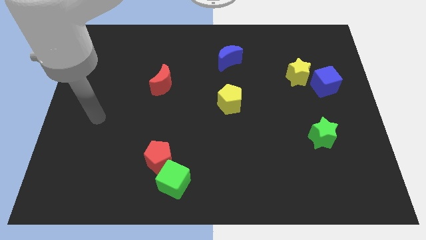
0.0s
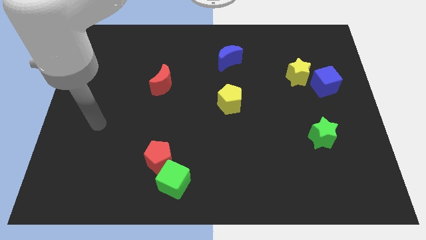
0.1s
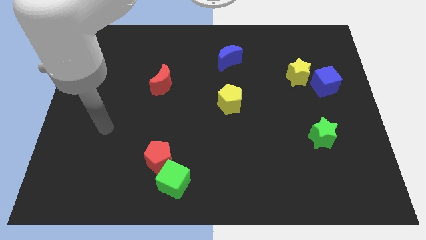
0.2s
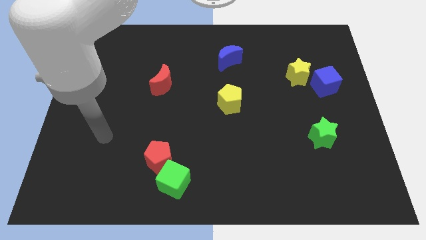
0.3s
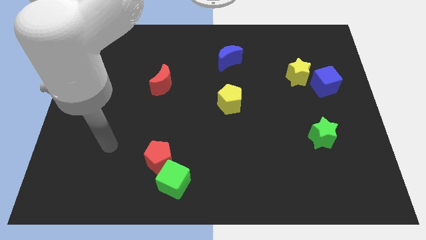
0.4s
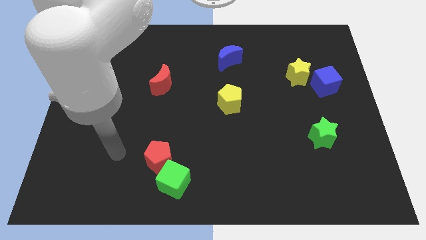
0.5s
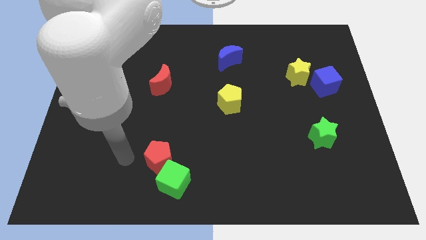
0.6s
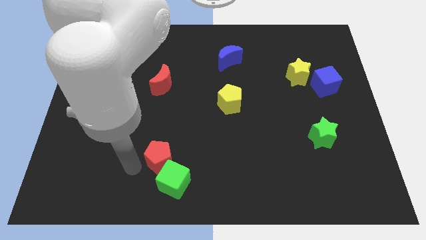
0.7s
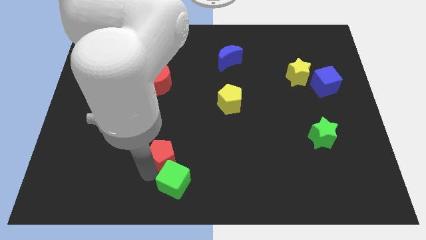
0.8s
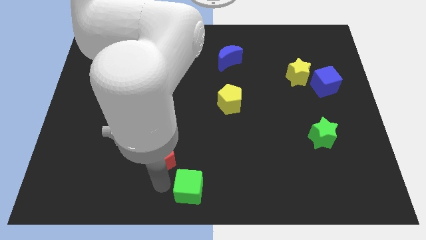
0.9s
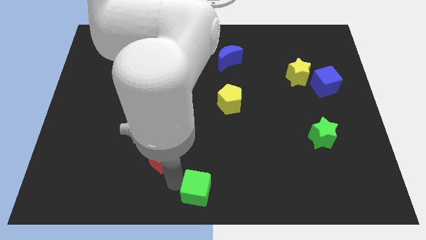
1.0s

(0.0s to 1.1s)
move the red pentagon away from the green cube

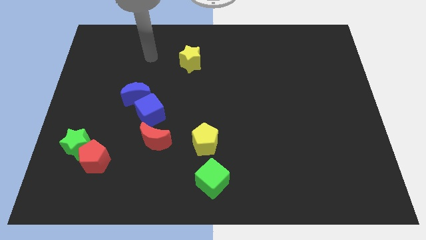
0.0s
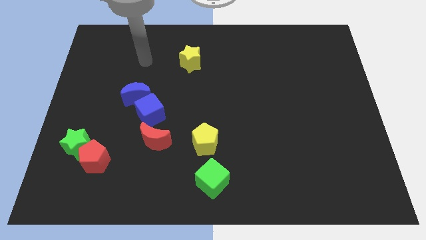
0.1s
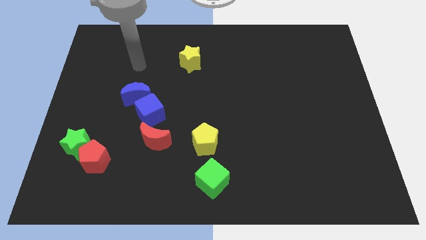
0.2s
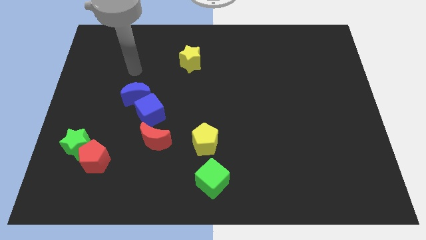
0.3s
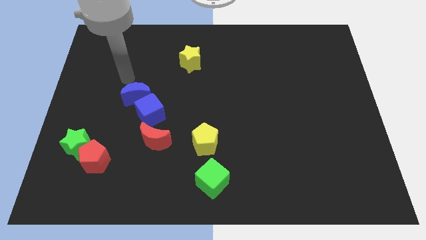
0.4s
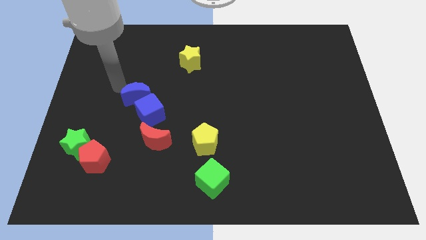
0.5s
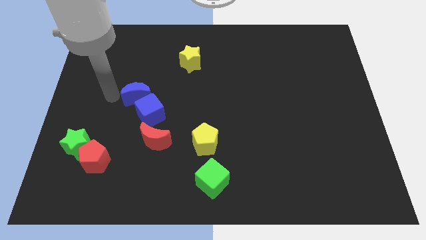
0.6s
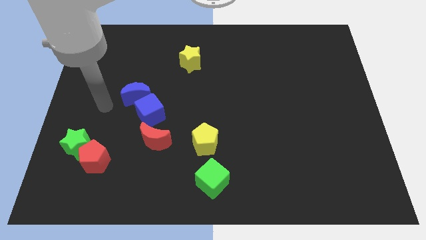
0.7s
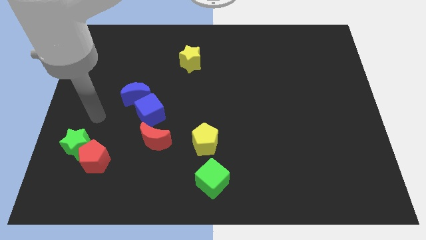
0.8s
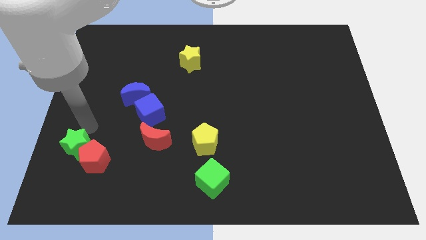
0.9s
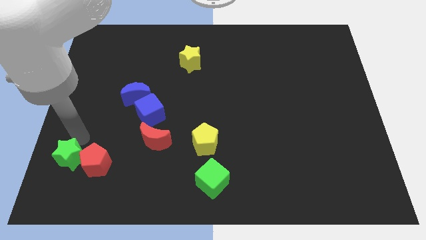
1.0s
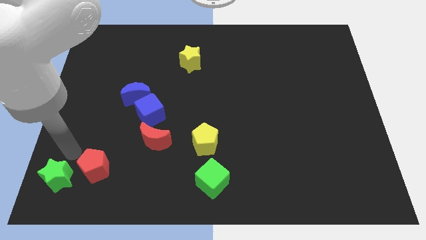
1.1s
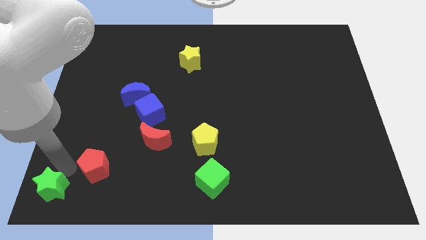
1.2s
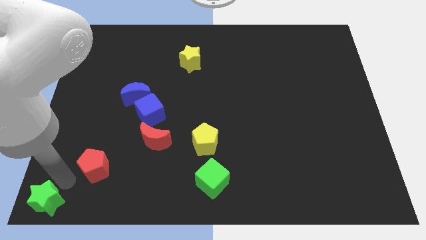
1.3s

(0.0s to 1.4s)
pull the red pentagon apart from the green star

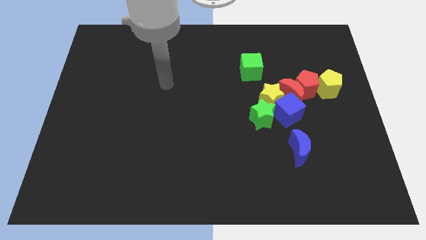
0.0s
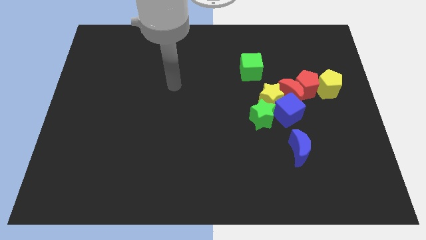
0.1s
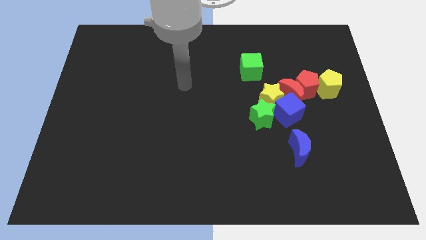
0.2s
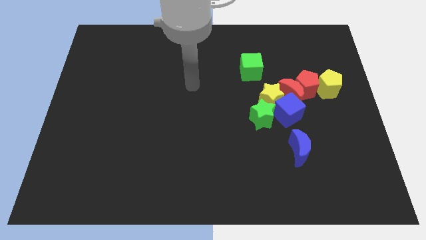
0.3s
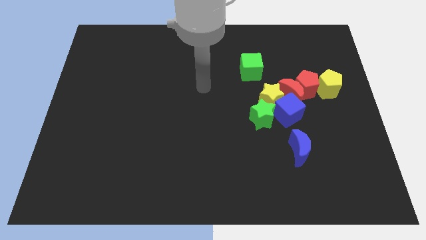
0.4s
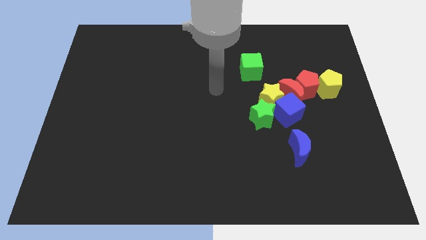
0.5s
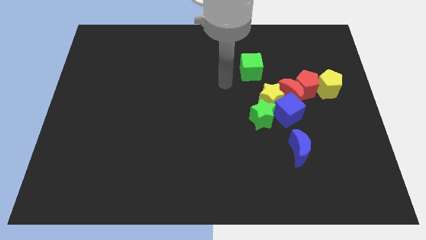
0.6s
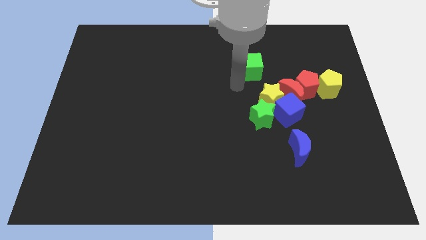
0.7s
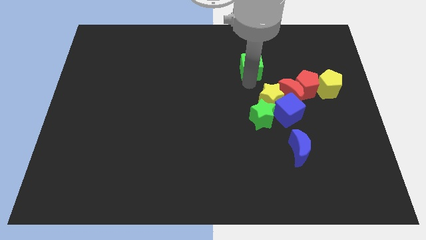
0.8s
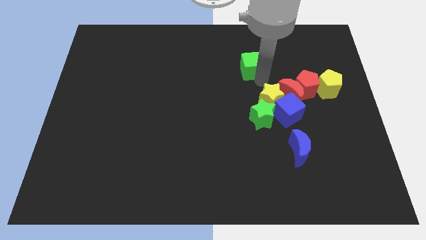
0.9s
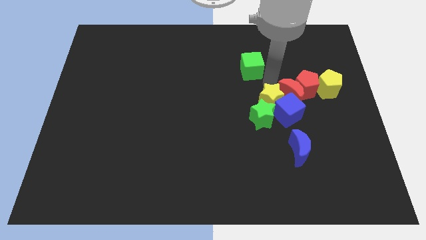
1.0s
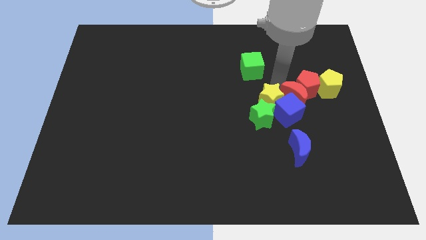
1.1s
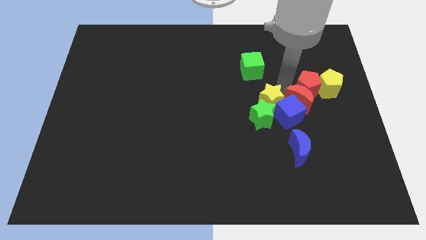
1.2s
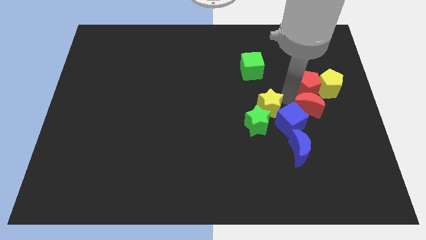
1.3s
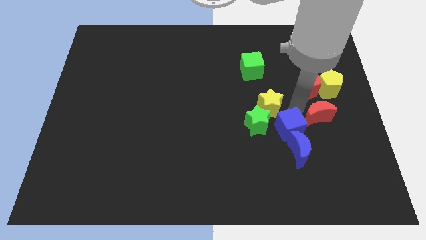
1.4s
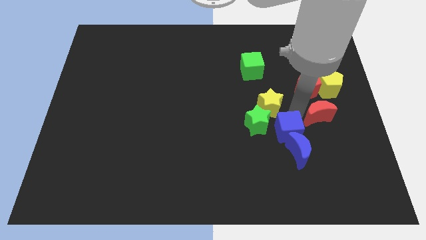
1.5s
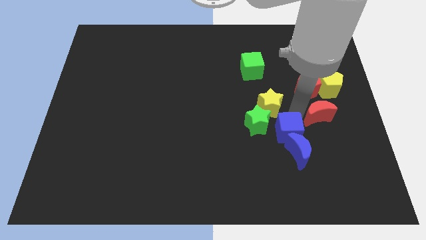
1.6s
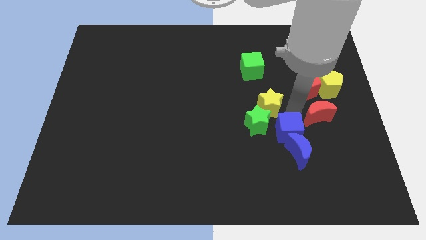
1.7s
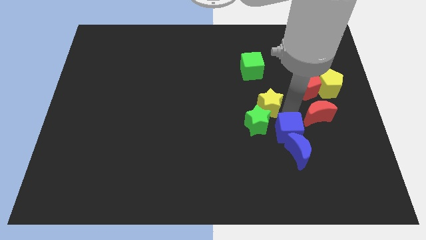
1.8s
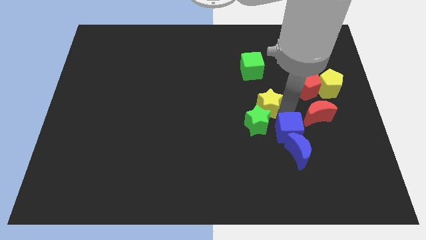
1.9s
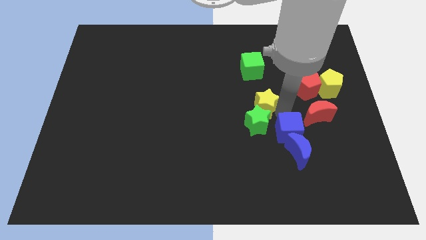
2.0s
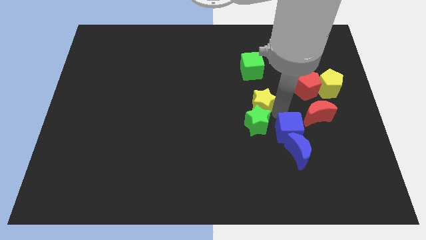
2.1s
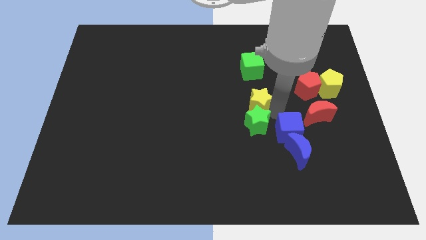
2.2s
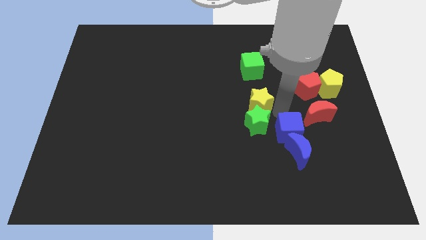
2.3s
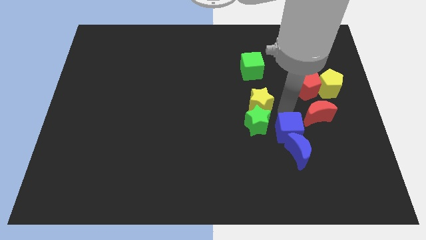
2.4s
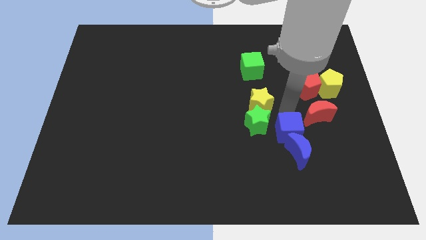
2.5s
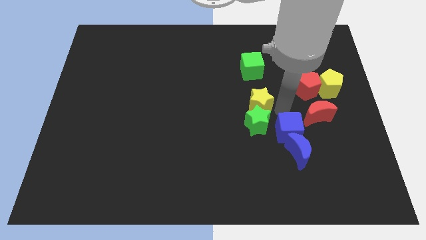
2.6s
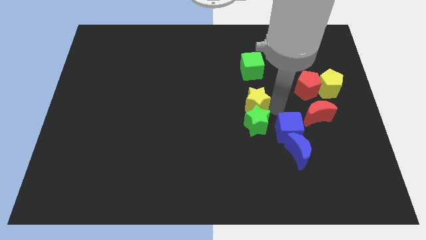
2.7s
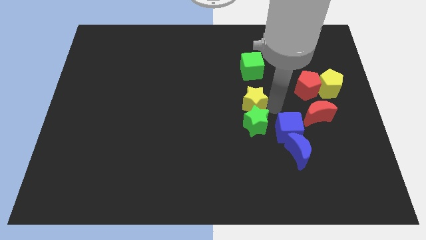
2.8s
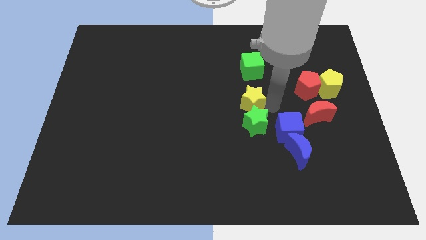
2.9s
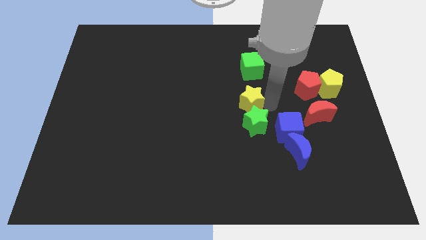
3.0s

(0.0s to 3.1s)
separate the yellow star from the group

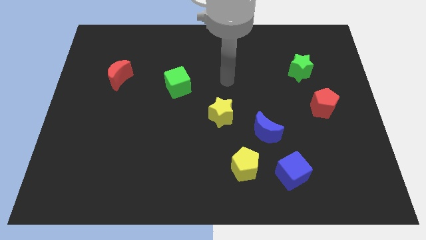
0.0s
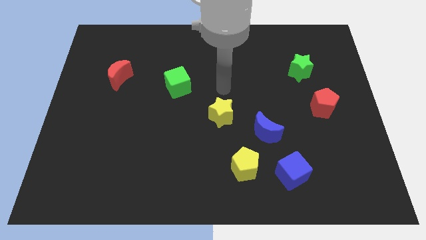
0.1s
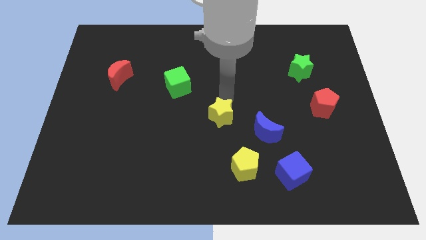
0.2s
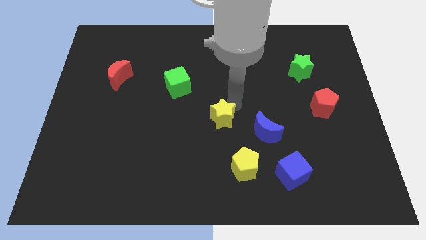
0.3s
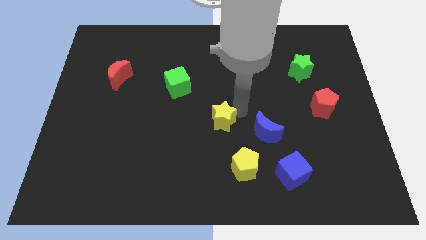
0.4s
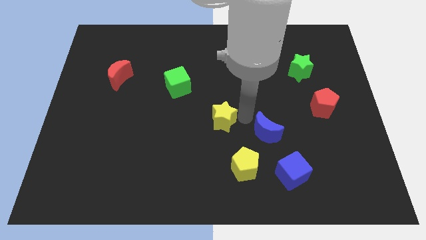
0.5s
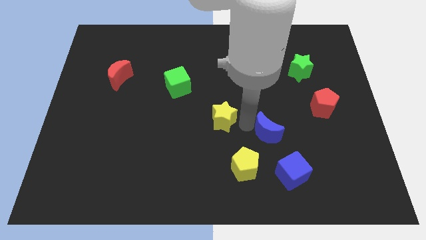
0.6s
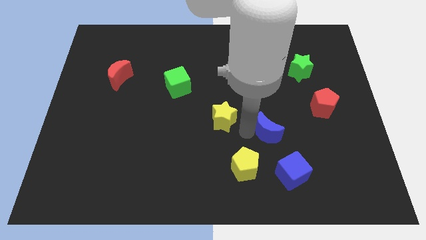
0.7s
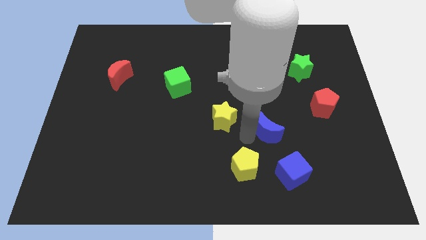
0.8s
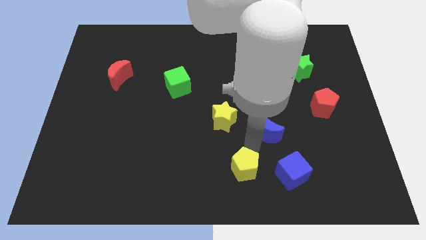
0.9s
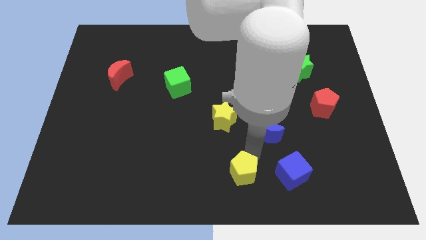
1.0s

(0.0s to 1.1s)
pull the blue cube apart from the yellow pentagon

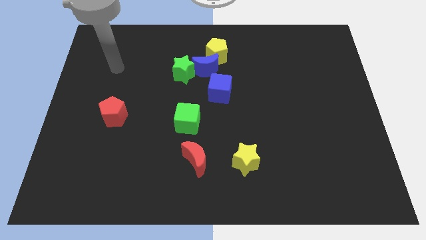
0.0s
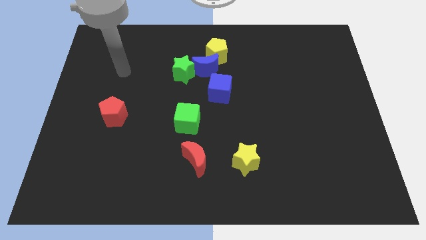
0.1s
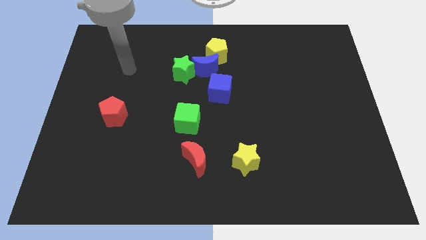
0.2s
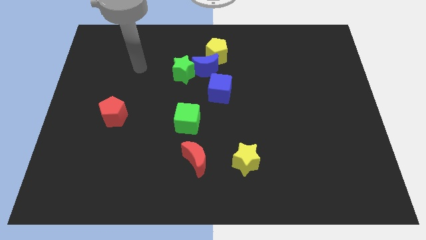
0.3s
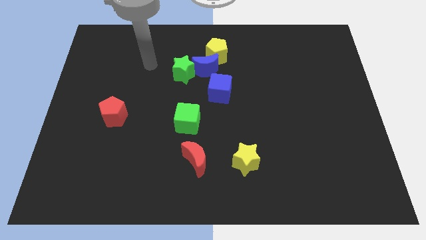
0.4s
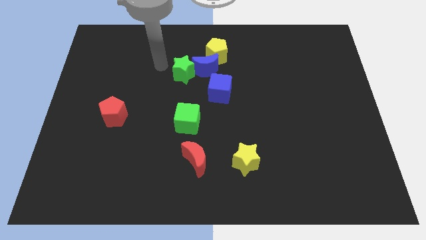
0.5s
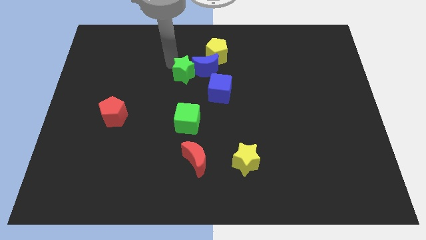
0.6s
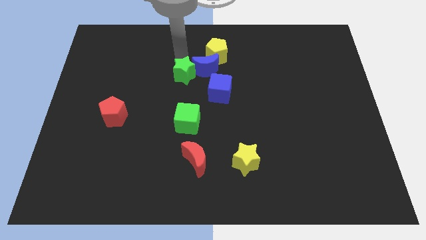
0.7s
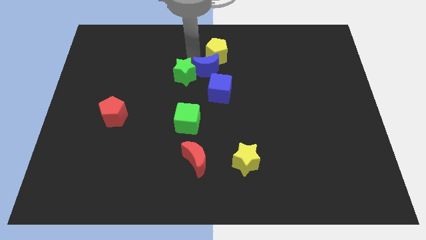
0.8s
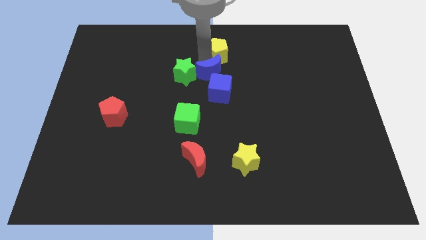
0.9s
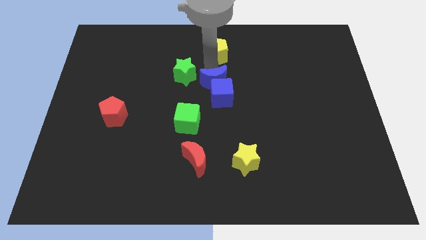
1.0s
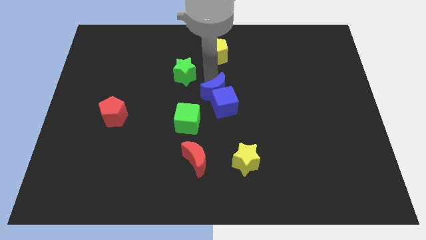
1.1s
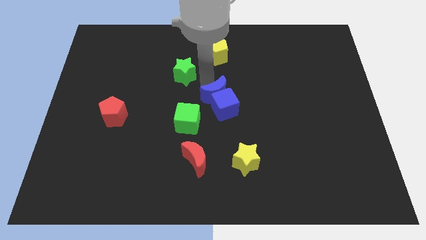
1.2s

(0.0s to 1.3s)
move the green star away from the blue moon

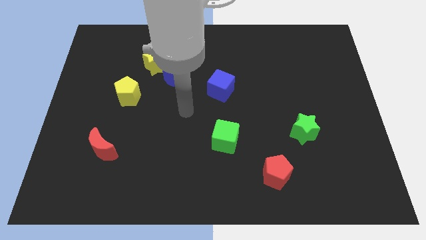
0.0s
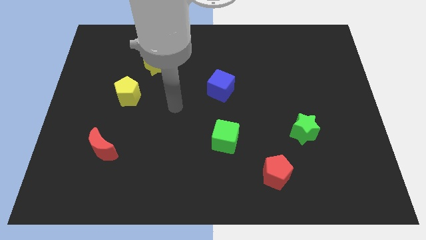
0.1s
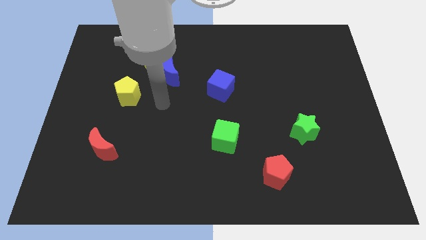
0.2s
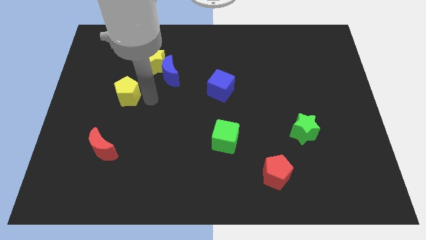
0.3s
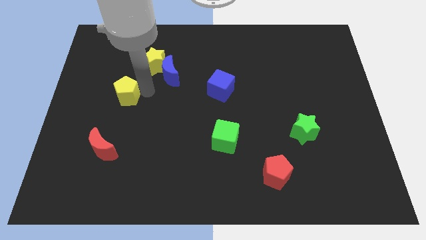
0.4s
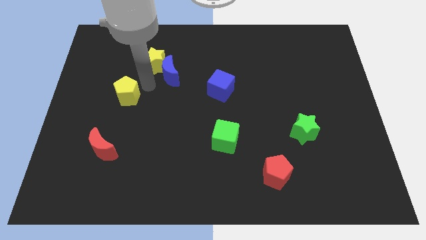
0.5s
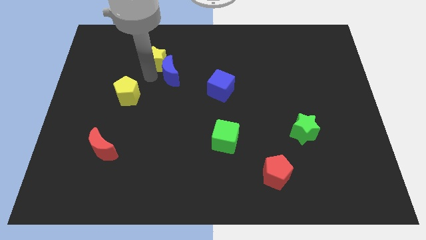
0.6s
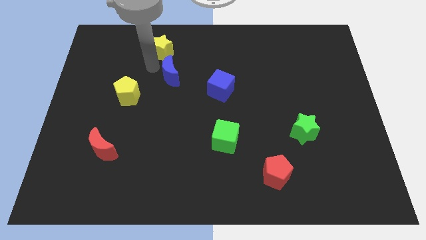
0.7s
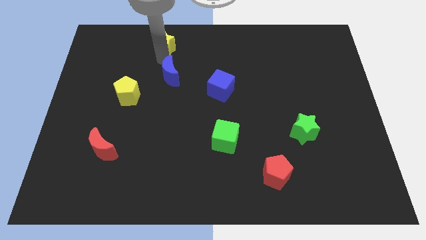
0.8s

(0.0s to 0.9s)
move the blue moon away from the yellow star

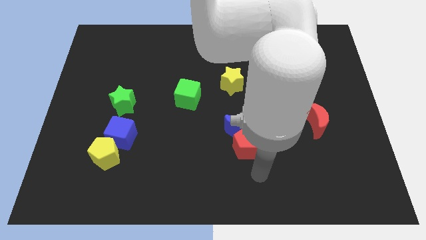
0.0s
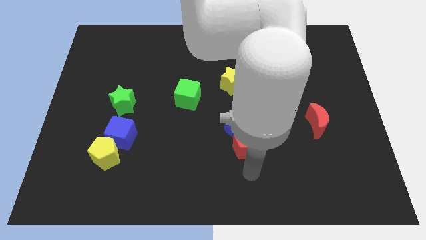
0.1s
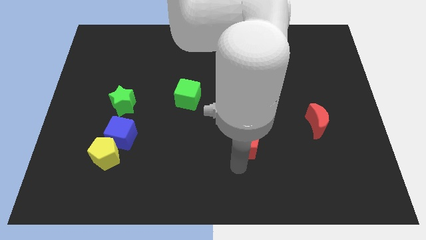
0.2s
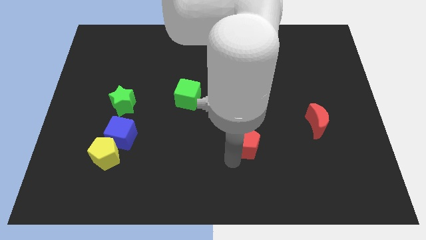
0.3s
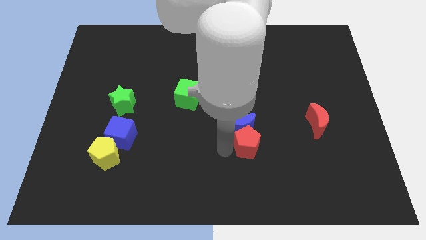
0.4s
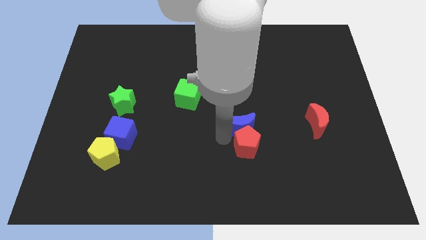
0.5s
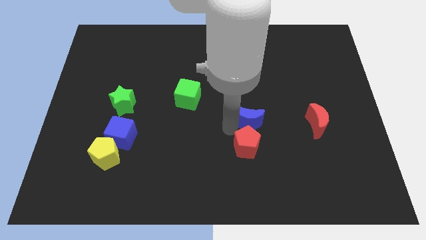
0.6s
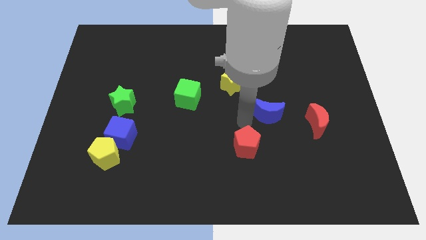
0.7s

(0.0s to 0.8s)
pull the red pentagon apart from the blue moon
